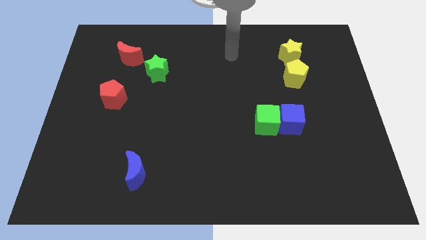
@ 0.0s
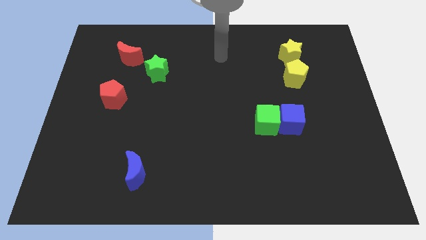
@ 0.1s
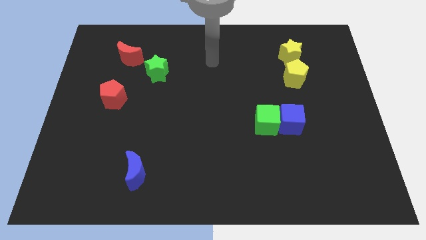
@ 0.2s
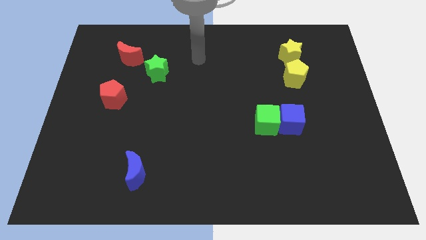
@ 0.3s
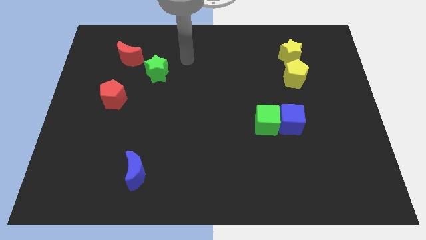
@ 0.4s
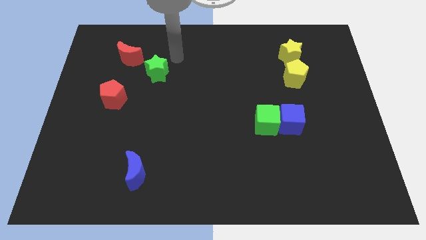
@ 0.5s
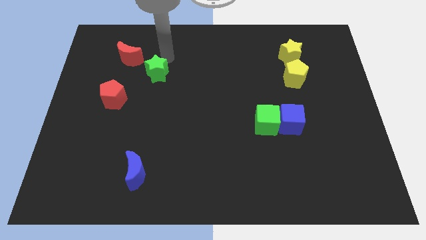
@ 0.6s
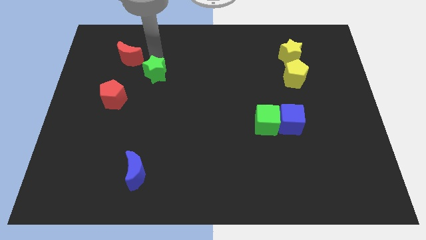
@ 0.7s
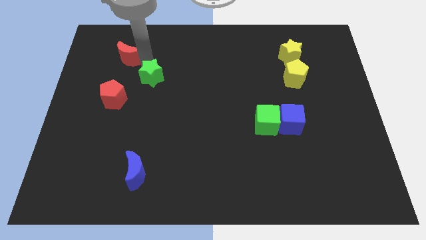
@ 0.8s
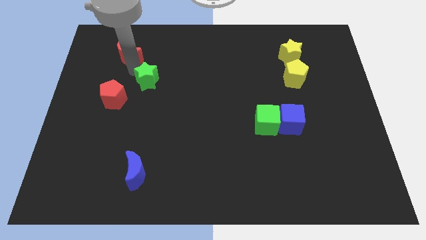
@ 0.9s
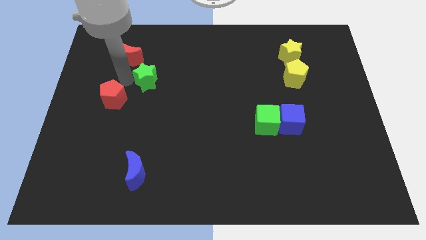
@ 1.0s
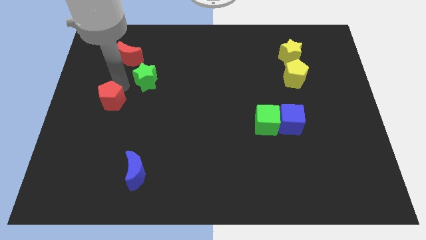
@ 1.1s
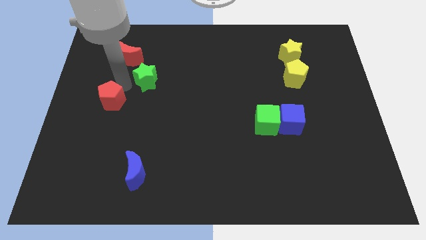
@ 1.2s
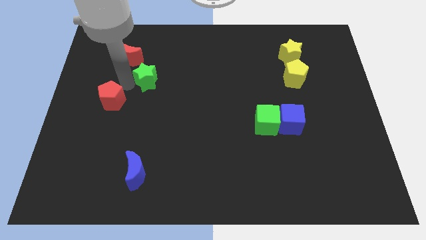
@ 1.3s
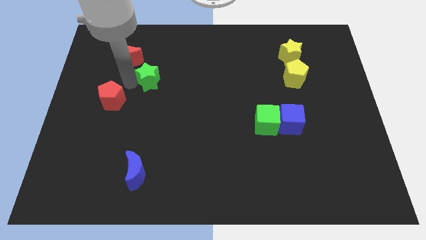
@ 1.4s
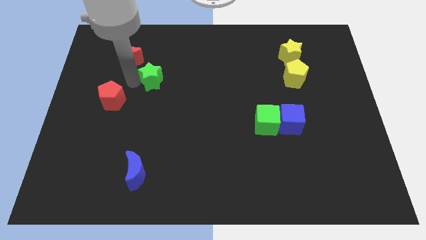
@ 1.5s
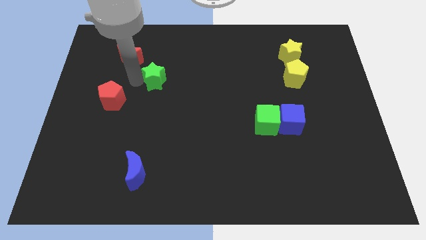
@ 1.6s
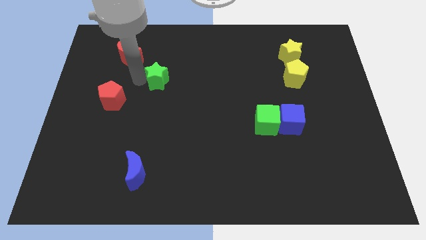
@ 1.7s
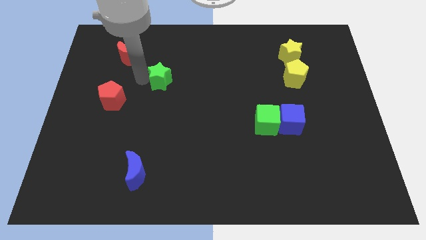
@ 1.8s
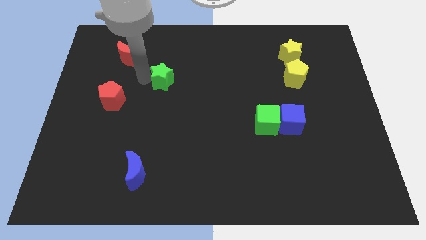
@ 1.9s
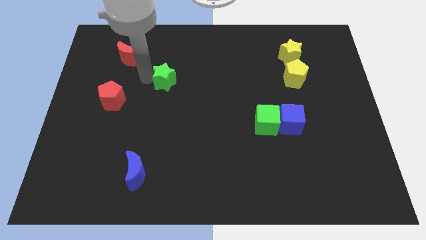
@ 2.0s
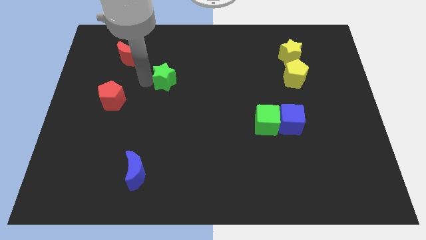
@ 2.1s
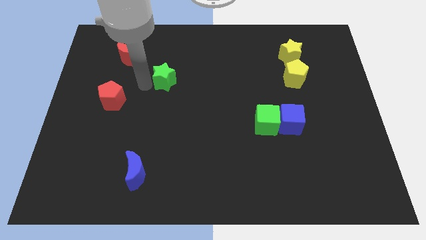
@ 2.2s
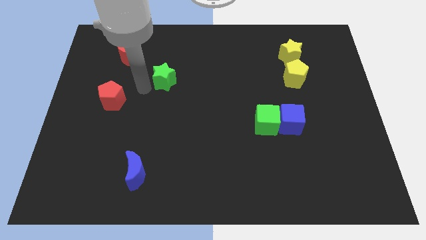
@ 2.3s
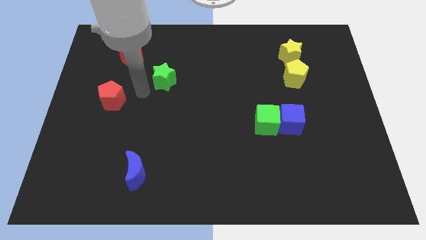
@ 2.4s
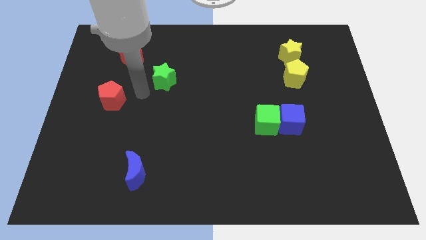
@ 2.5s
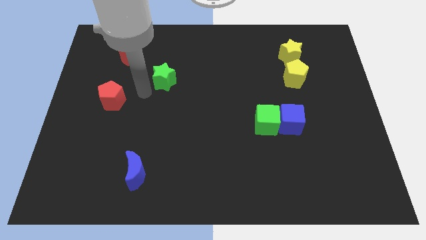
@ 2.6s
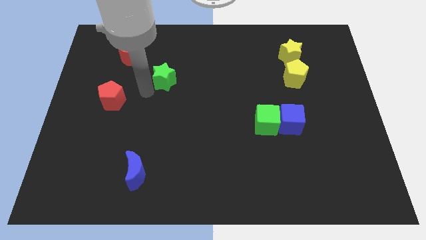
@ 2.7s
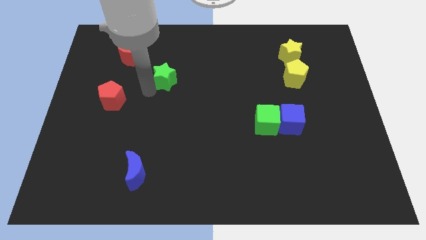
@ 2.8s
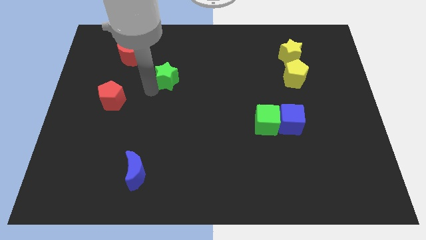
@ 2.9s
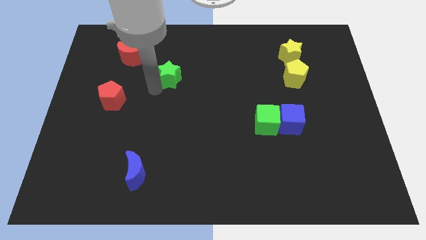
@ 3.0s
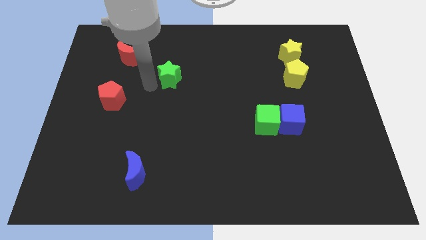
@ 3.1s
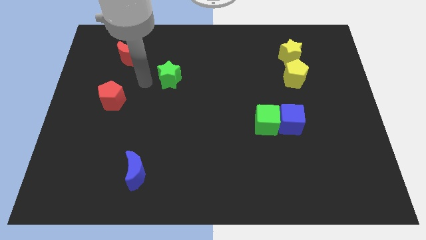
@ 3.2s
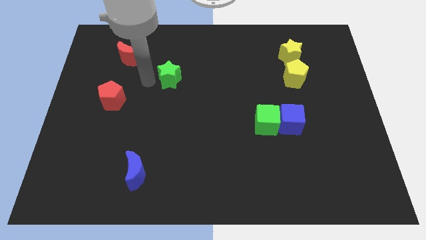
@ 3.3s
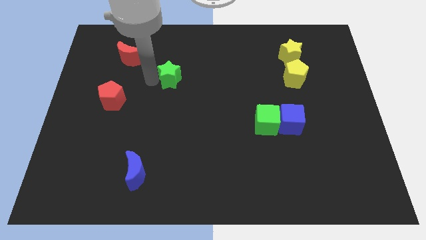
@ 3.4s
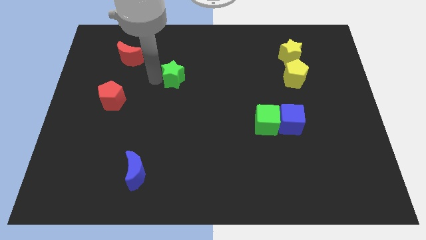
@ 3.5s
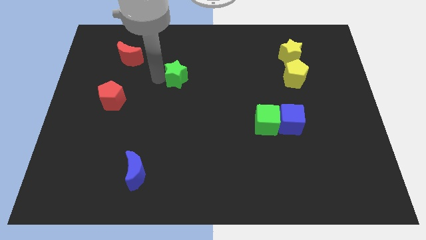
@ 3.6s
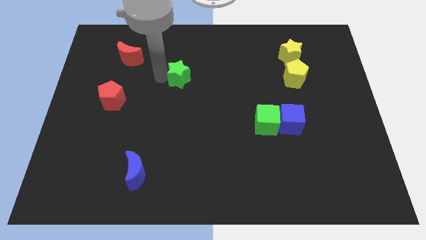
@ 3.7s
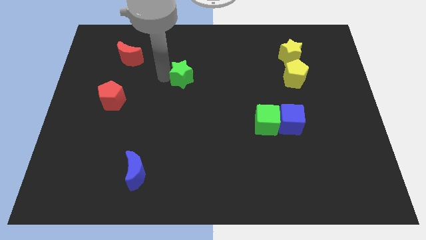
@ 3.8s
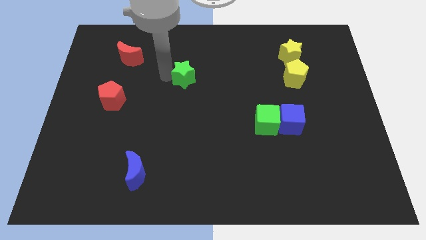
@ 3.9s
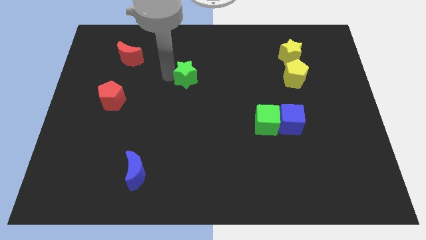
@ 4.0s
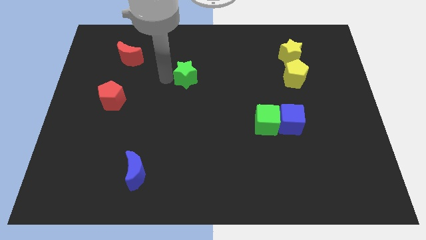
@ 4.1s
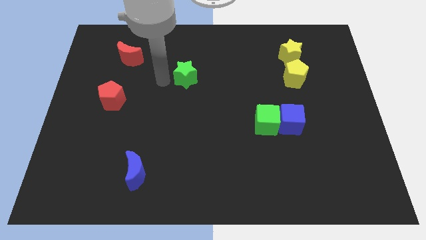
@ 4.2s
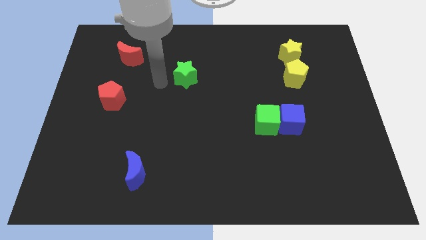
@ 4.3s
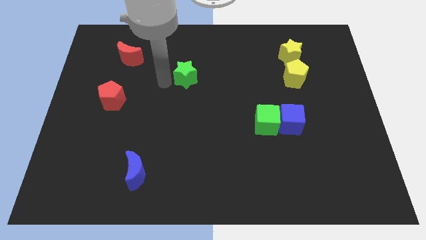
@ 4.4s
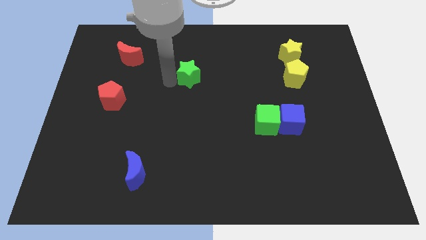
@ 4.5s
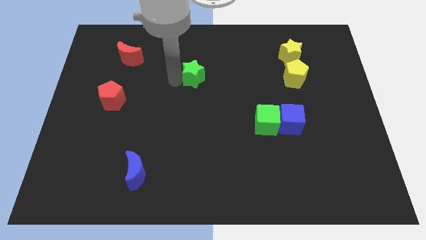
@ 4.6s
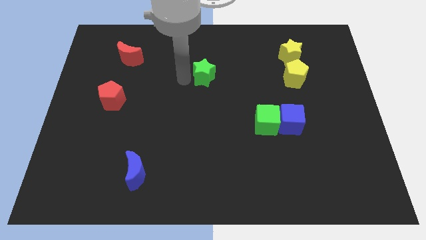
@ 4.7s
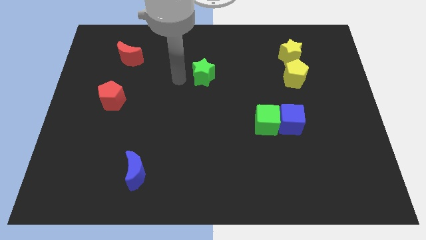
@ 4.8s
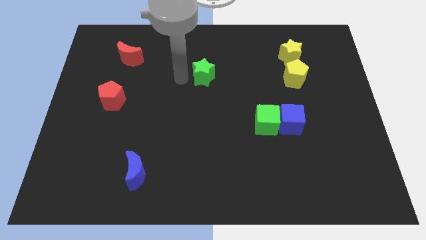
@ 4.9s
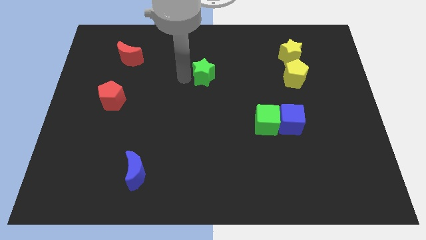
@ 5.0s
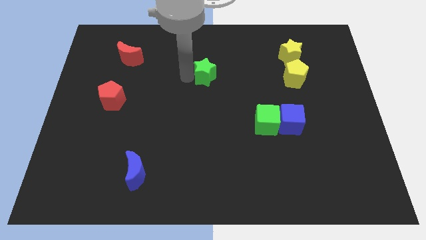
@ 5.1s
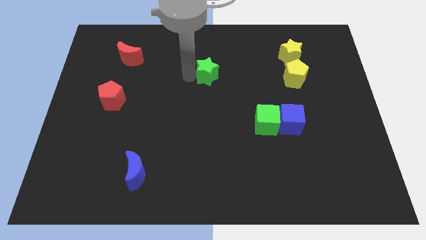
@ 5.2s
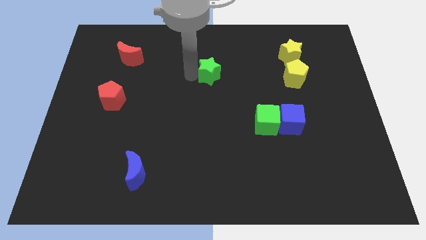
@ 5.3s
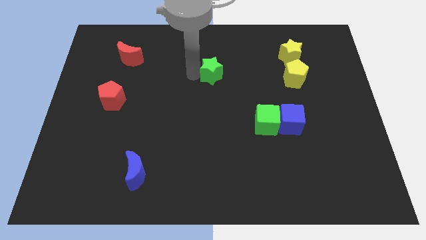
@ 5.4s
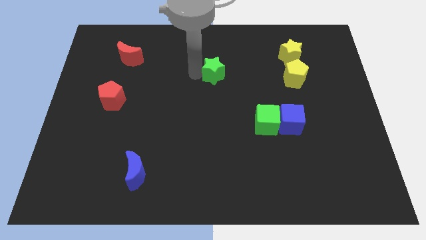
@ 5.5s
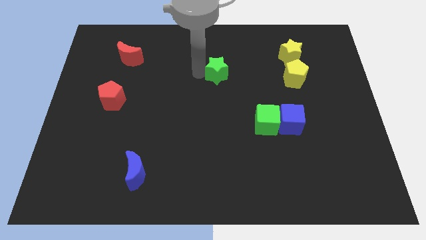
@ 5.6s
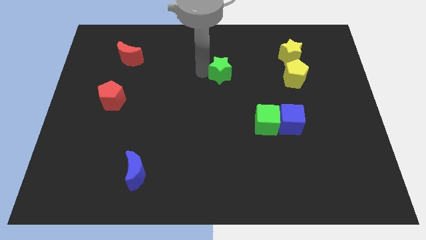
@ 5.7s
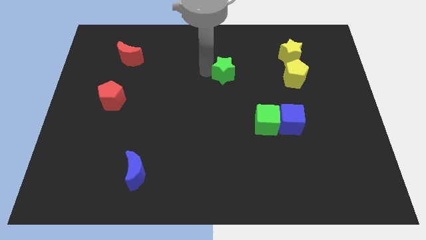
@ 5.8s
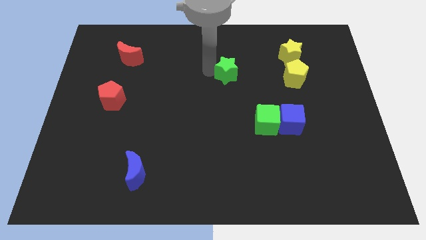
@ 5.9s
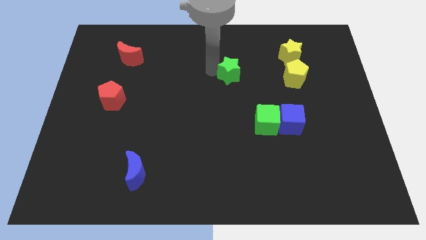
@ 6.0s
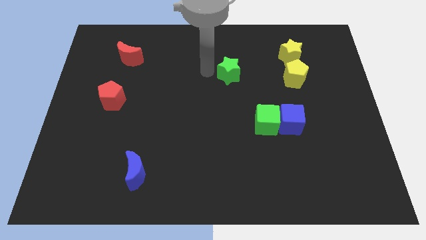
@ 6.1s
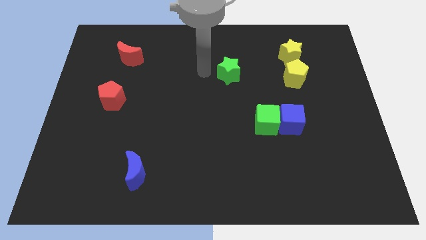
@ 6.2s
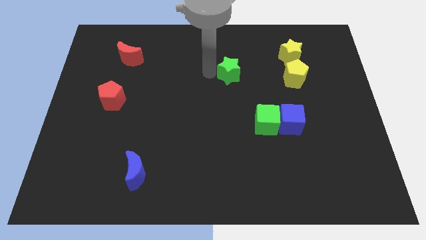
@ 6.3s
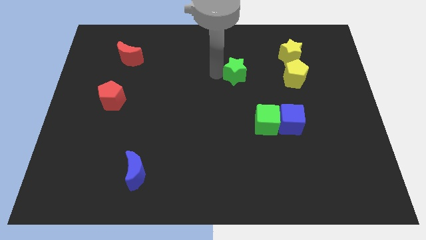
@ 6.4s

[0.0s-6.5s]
put the green star just left of the yellow pentagon

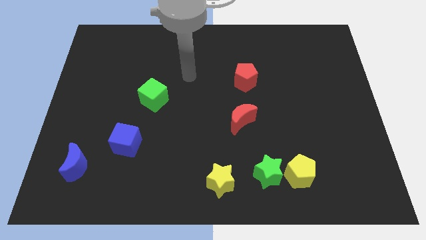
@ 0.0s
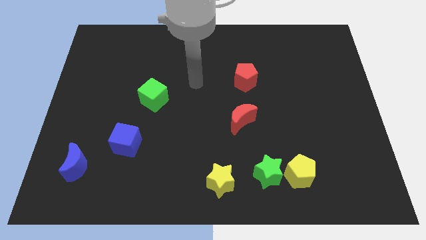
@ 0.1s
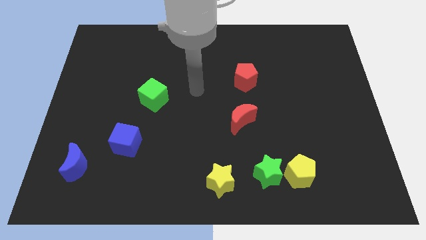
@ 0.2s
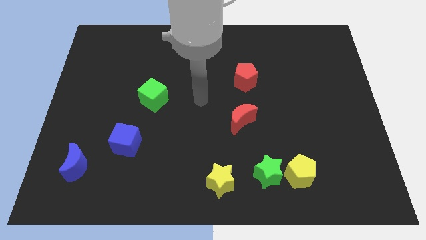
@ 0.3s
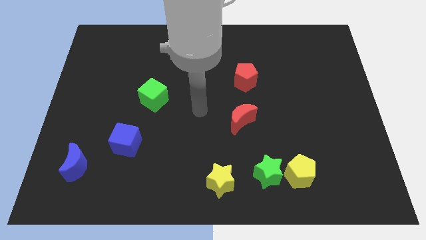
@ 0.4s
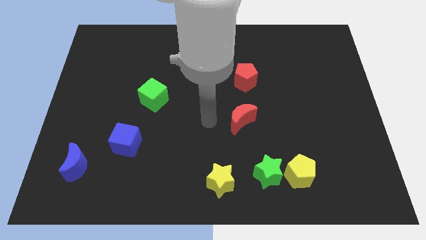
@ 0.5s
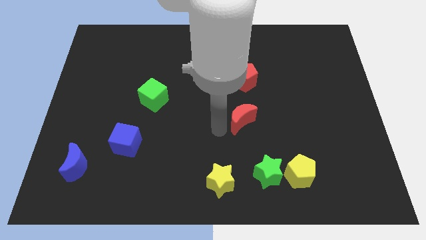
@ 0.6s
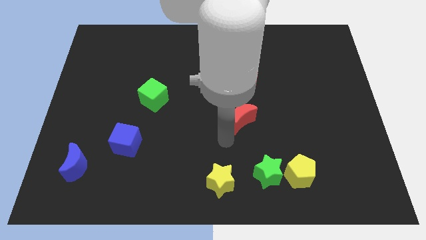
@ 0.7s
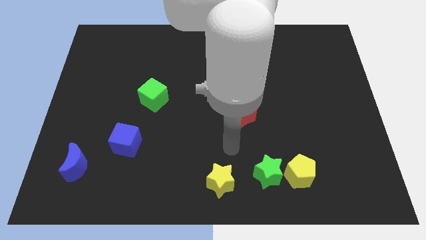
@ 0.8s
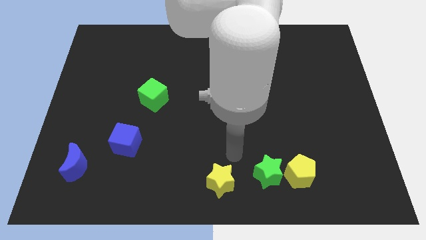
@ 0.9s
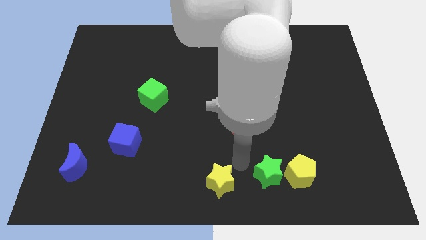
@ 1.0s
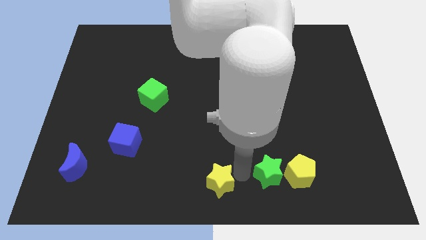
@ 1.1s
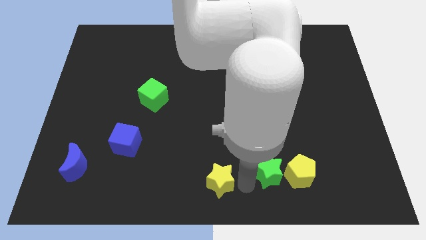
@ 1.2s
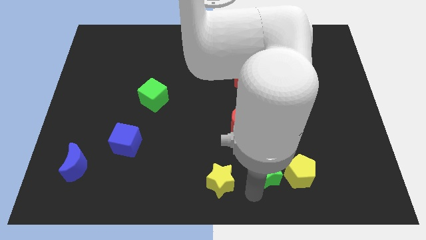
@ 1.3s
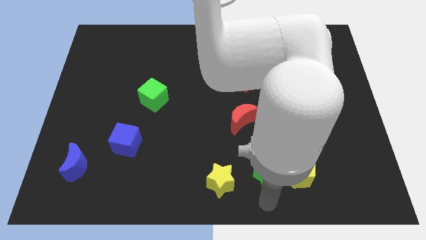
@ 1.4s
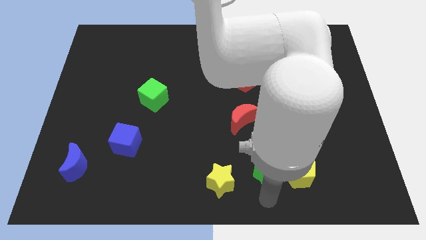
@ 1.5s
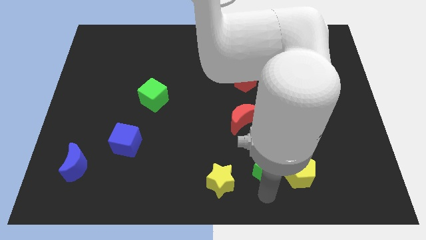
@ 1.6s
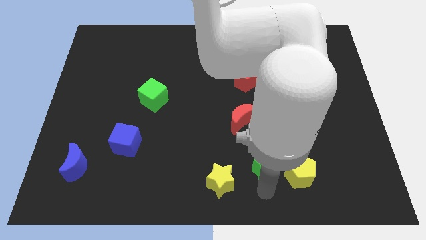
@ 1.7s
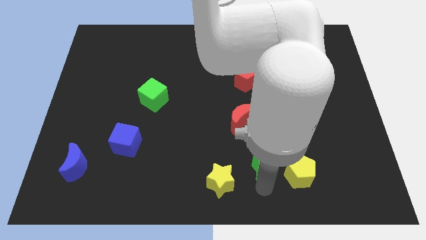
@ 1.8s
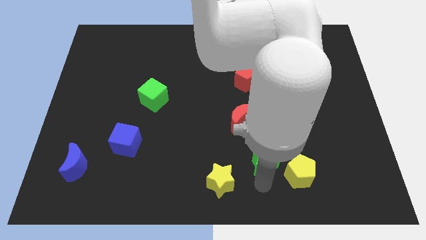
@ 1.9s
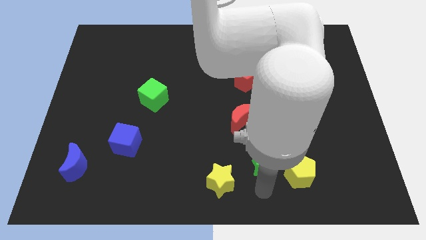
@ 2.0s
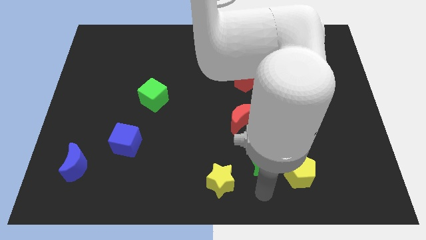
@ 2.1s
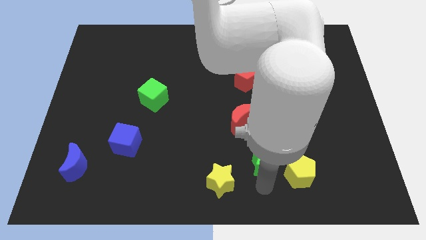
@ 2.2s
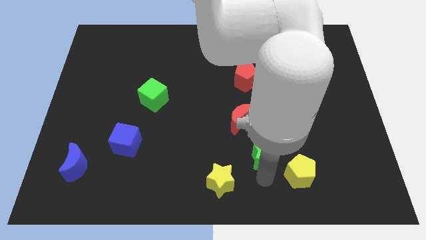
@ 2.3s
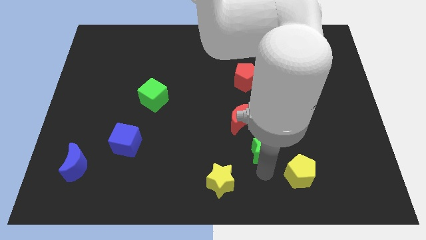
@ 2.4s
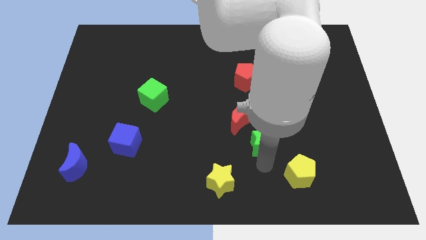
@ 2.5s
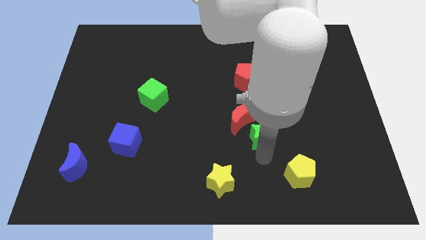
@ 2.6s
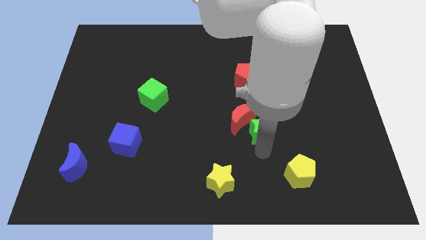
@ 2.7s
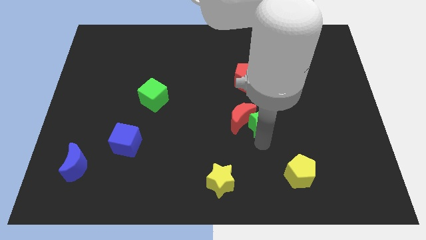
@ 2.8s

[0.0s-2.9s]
move the green star to the top right side of the red moon
